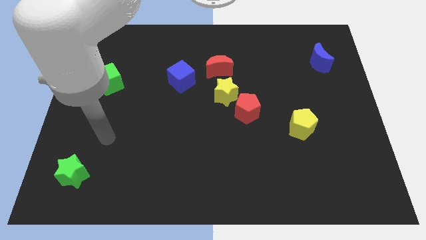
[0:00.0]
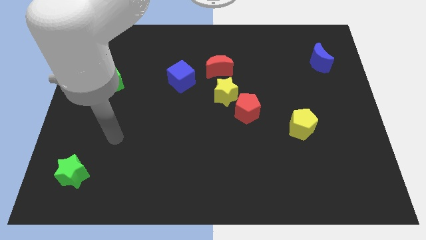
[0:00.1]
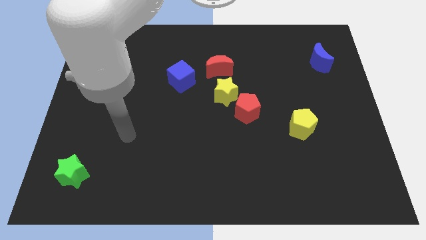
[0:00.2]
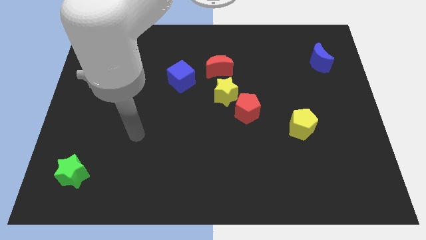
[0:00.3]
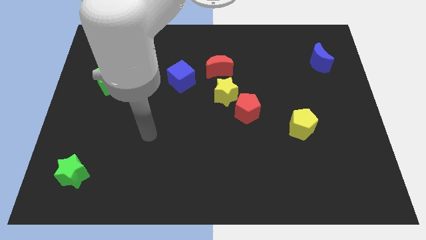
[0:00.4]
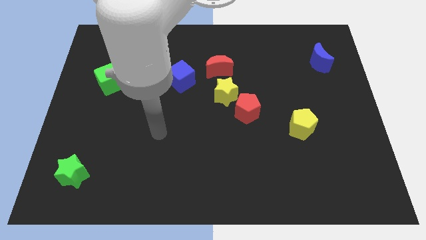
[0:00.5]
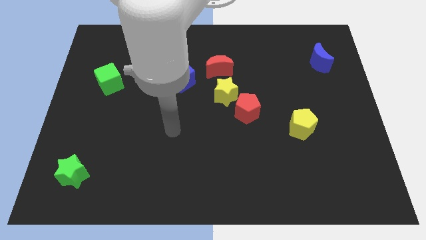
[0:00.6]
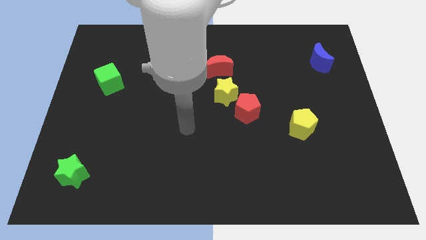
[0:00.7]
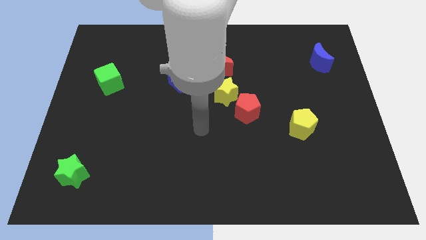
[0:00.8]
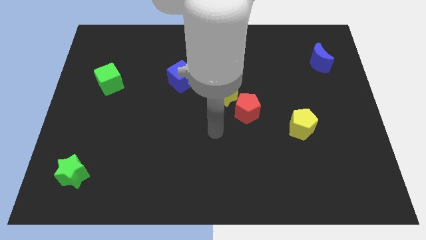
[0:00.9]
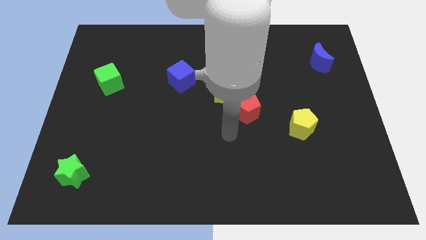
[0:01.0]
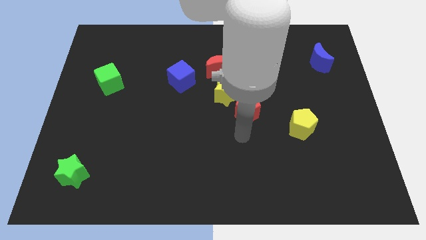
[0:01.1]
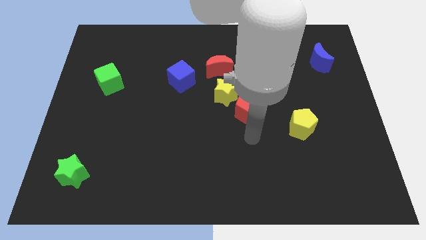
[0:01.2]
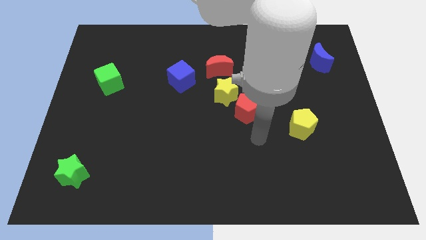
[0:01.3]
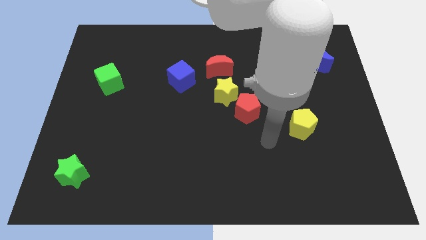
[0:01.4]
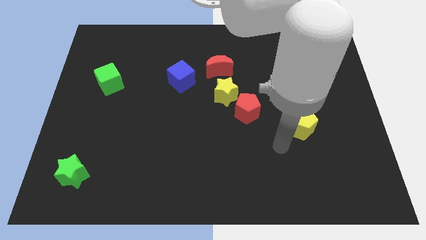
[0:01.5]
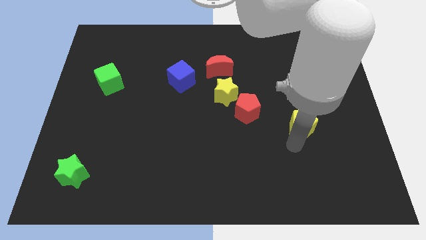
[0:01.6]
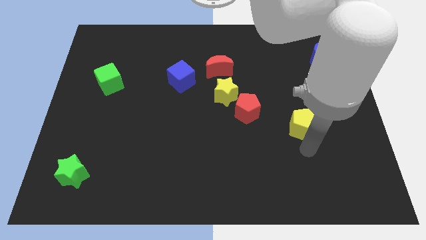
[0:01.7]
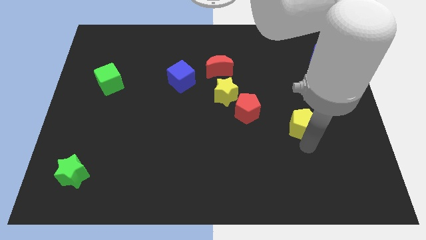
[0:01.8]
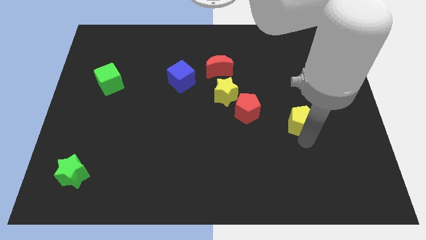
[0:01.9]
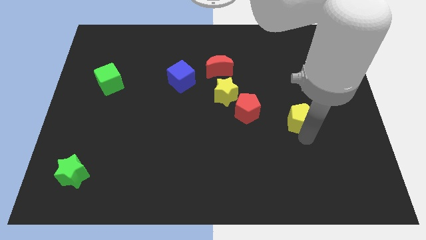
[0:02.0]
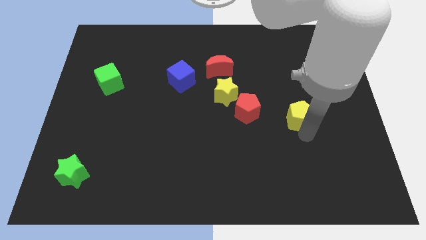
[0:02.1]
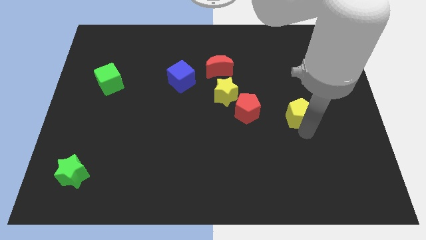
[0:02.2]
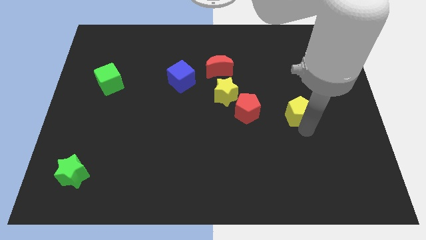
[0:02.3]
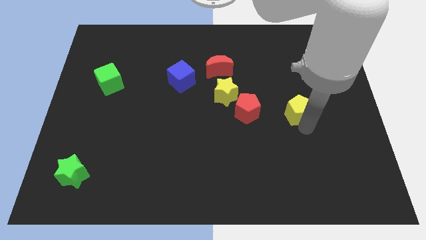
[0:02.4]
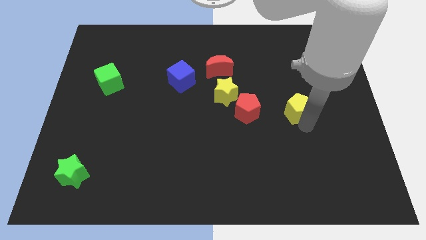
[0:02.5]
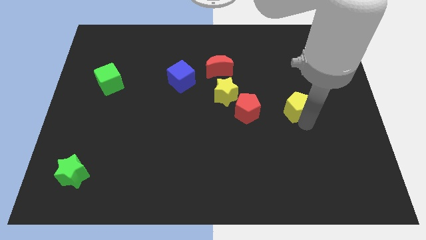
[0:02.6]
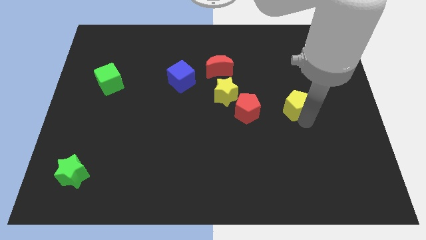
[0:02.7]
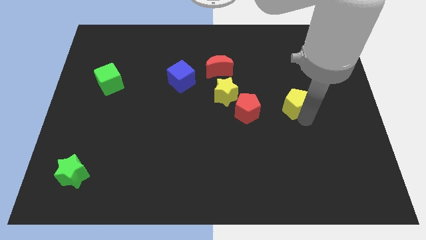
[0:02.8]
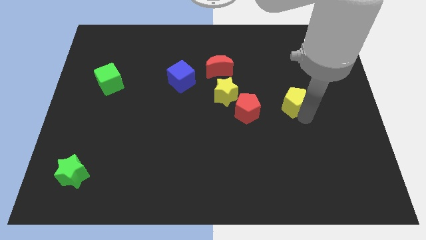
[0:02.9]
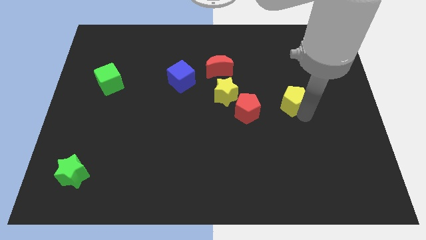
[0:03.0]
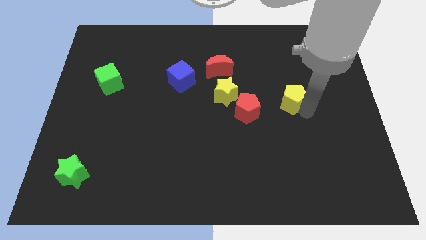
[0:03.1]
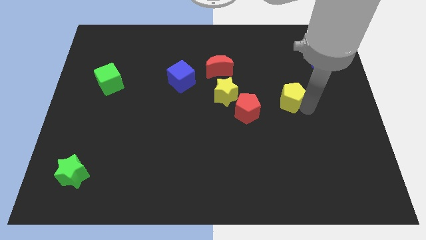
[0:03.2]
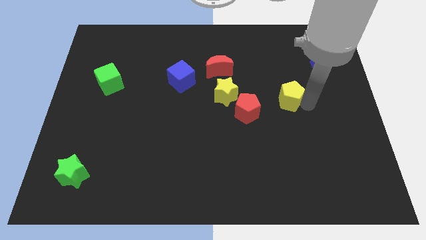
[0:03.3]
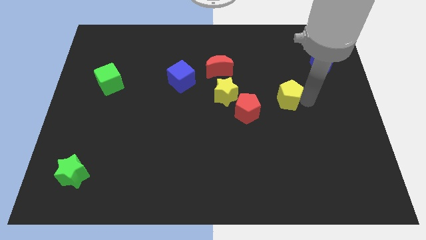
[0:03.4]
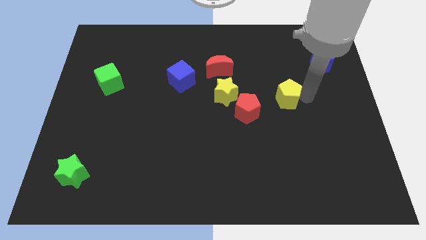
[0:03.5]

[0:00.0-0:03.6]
move the yellow pentagon a bit diagonally up and to the left

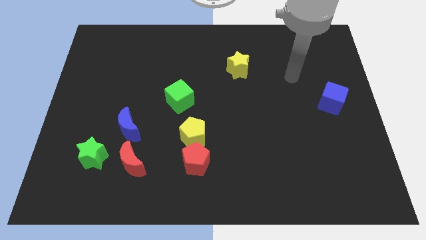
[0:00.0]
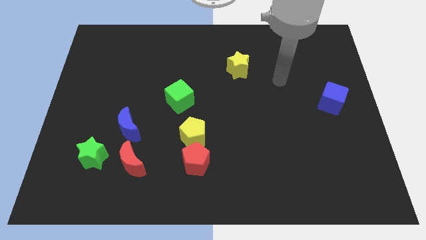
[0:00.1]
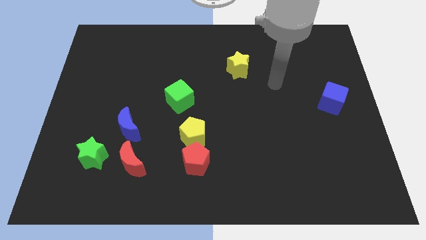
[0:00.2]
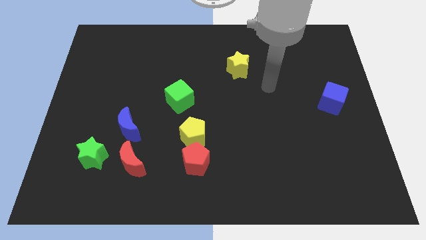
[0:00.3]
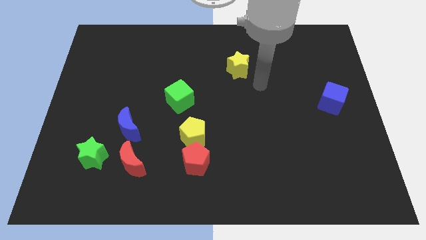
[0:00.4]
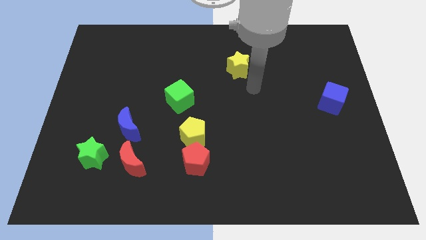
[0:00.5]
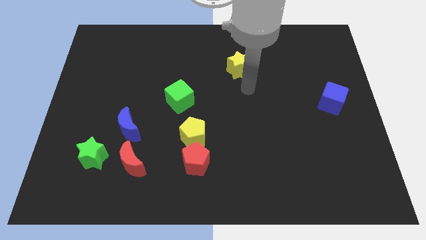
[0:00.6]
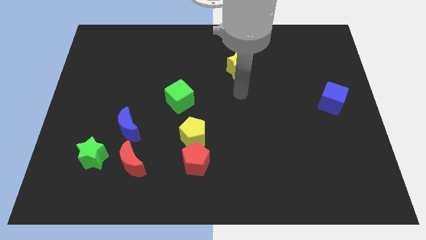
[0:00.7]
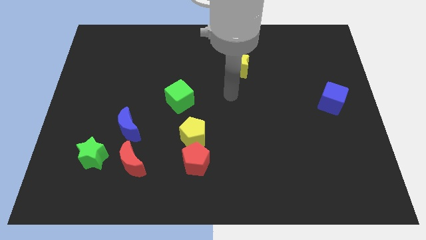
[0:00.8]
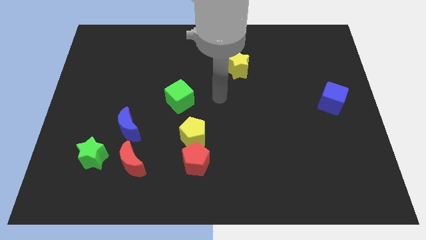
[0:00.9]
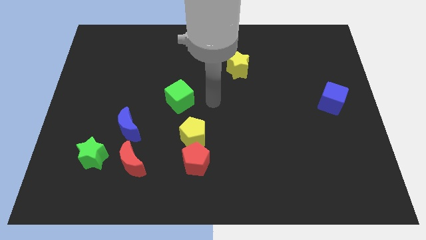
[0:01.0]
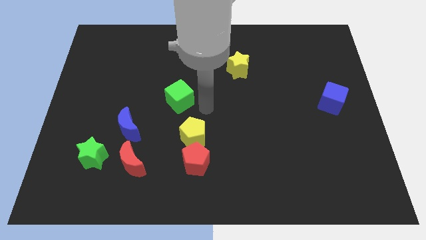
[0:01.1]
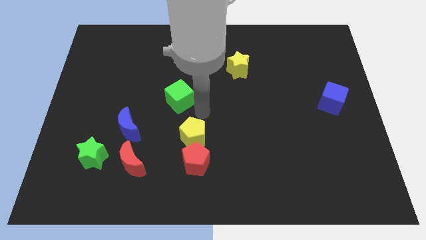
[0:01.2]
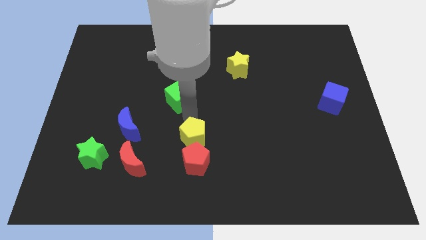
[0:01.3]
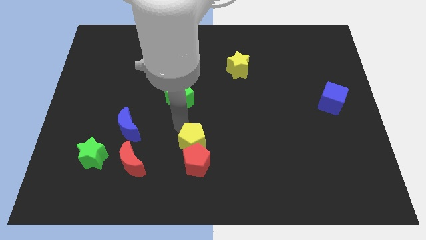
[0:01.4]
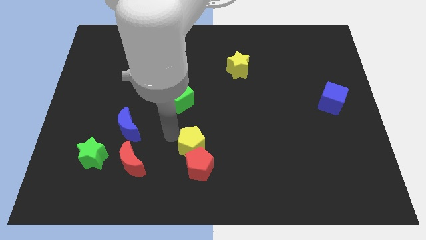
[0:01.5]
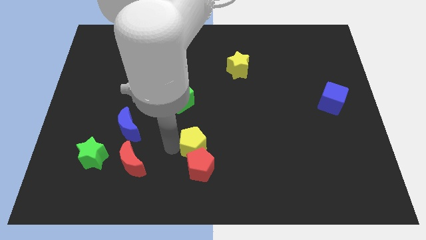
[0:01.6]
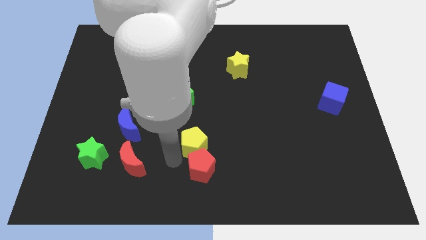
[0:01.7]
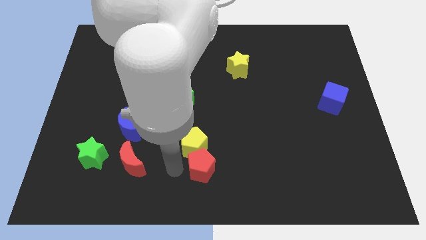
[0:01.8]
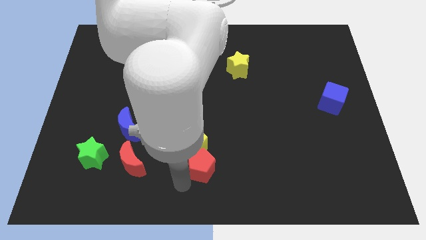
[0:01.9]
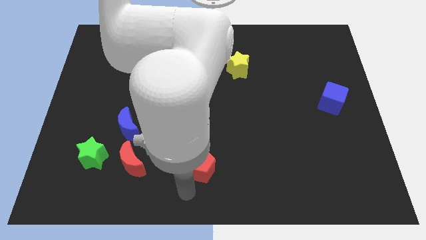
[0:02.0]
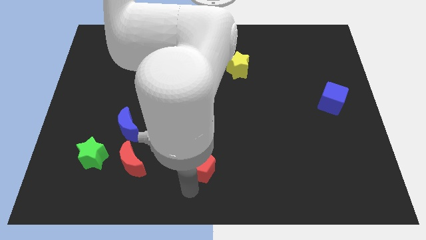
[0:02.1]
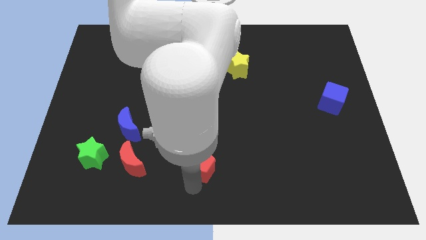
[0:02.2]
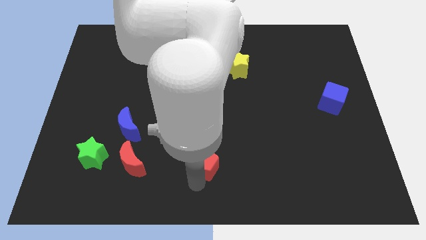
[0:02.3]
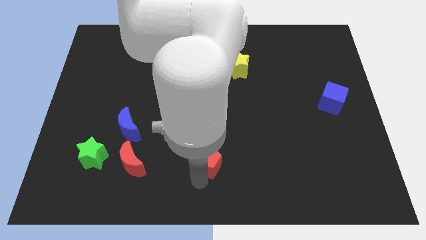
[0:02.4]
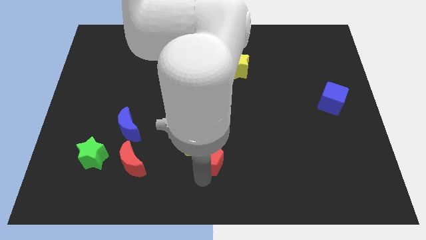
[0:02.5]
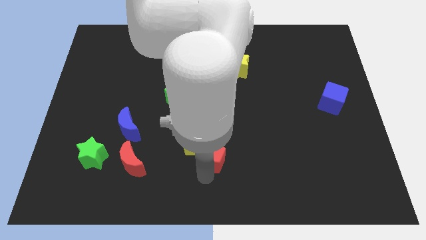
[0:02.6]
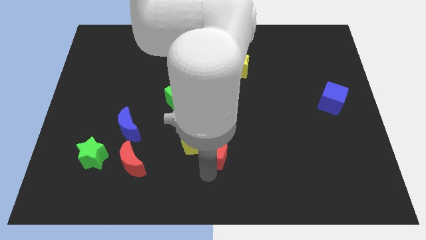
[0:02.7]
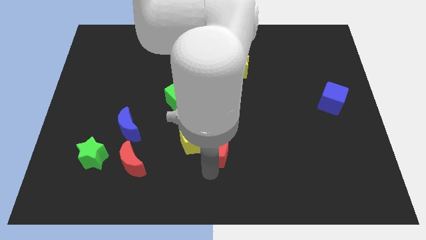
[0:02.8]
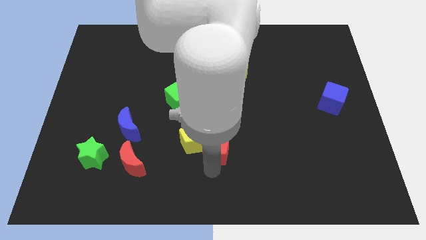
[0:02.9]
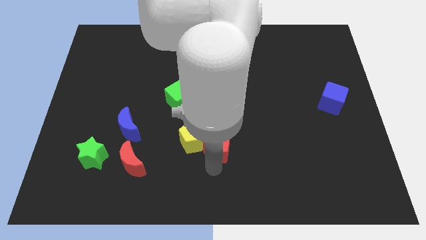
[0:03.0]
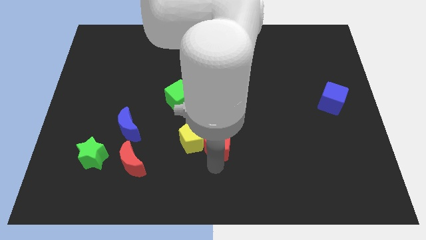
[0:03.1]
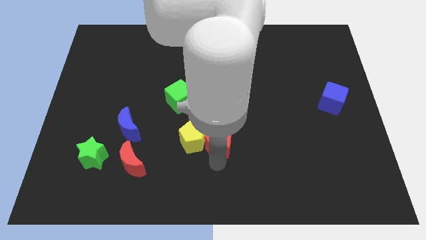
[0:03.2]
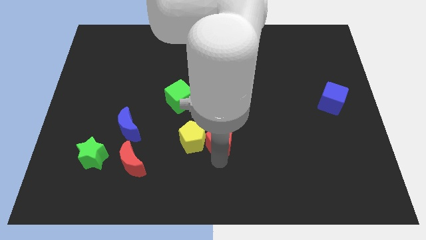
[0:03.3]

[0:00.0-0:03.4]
move the red pentagon a little upwards and right

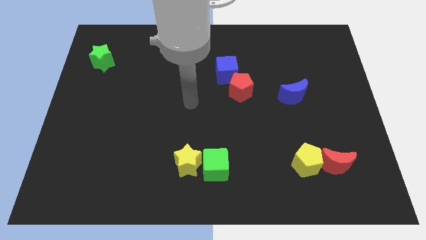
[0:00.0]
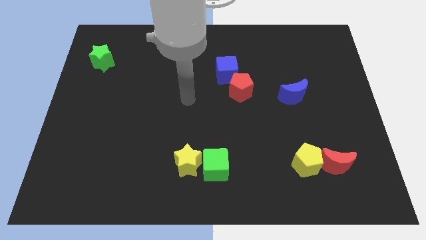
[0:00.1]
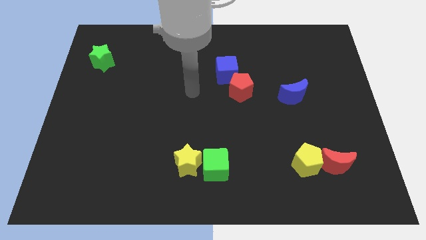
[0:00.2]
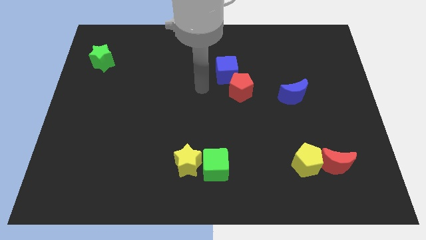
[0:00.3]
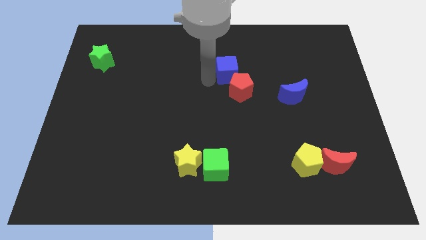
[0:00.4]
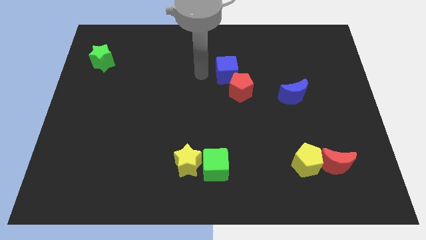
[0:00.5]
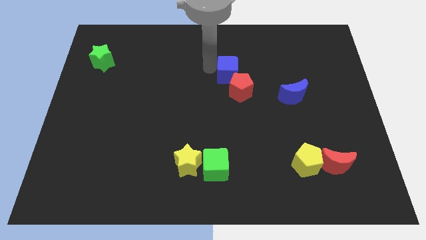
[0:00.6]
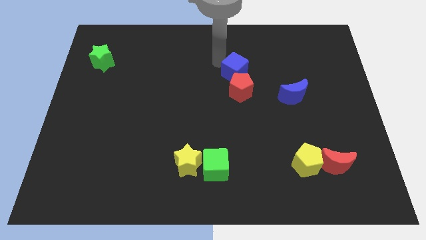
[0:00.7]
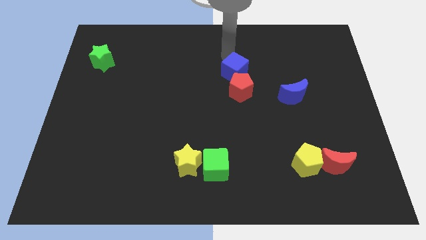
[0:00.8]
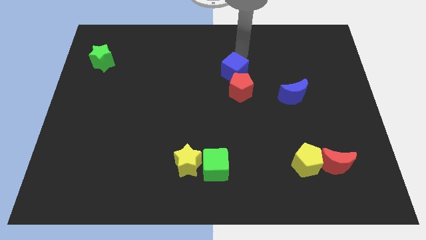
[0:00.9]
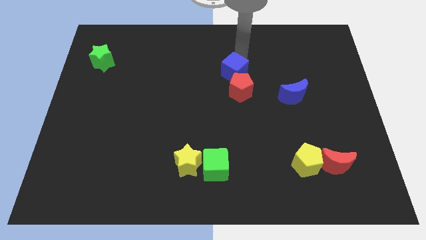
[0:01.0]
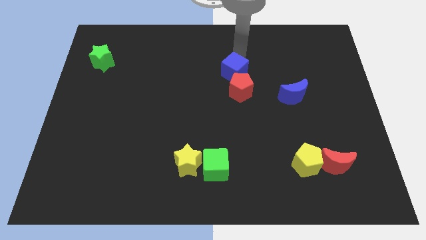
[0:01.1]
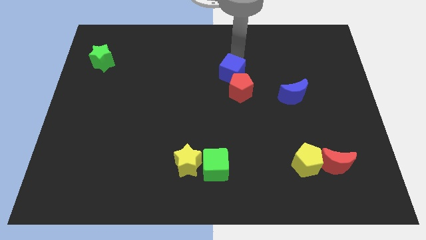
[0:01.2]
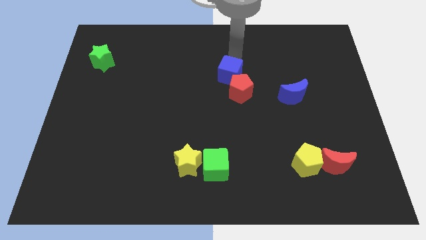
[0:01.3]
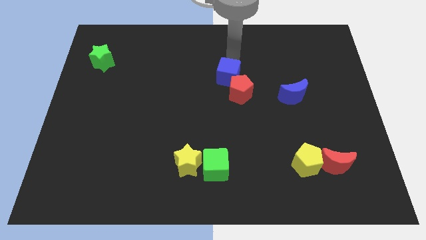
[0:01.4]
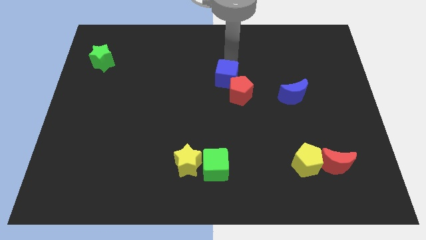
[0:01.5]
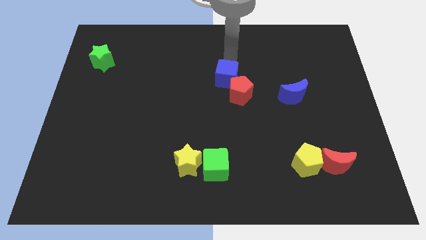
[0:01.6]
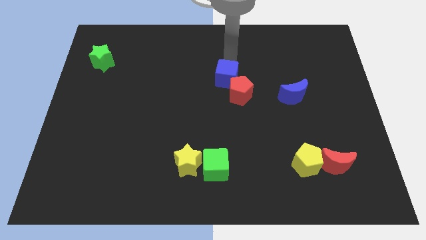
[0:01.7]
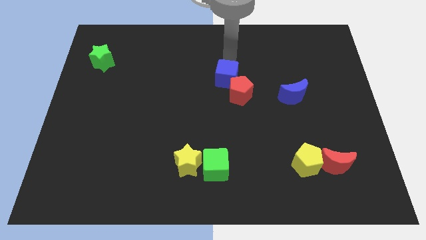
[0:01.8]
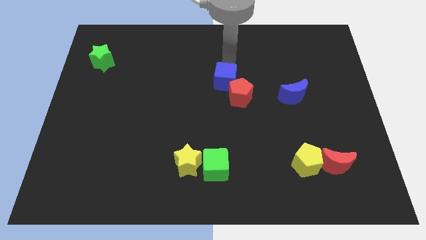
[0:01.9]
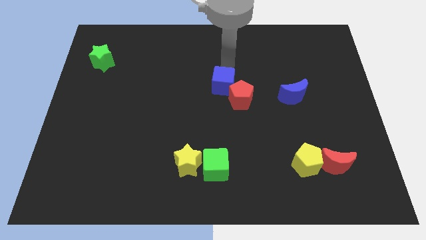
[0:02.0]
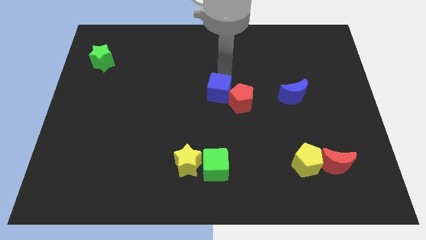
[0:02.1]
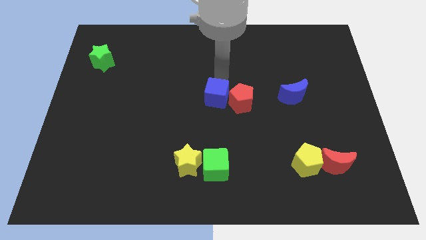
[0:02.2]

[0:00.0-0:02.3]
slightly push the blue cube down
